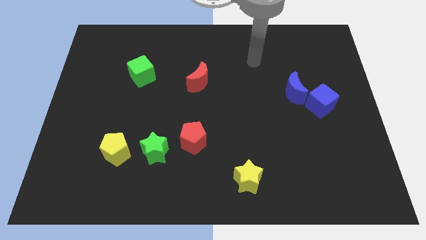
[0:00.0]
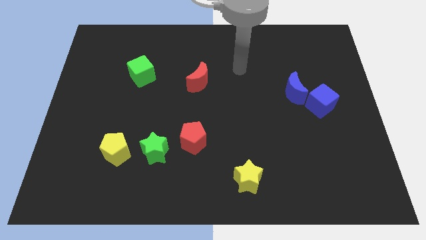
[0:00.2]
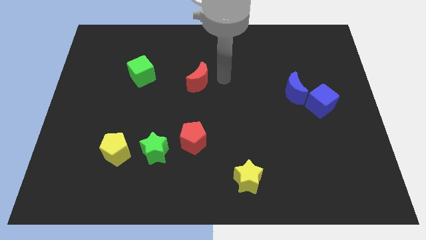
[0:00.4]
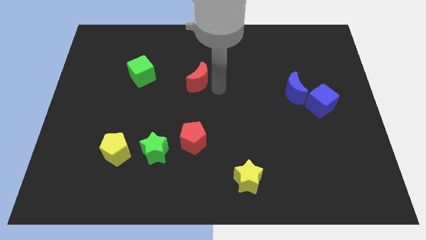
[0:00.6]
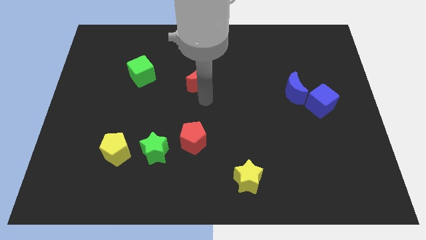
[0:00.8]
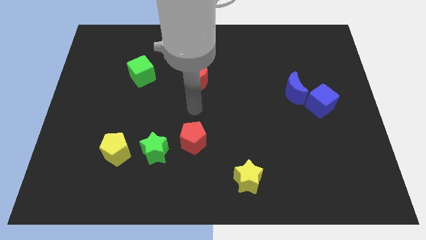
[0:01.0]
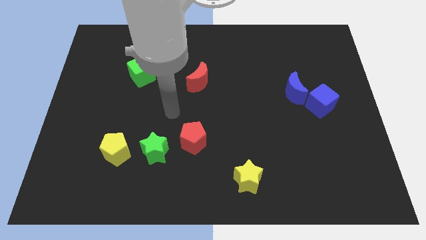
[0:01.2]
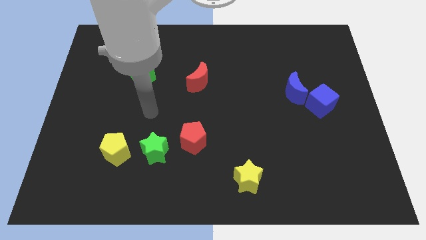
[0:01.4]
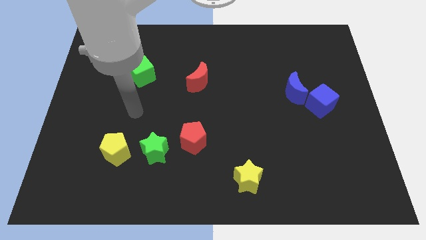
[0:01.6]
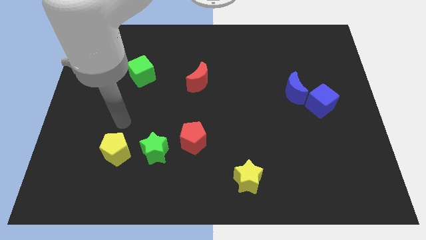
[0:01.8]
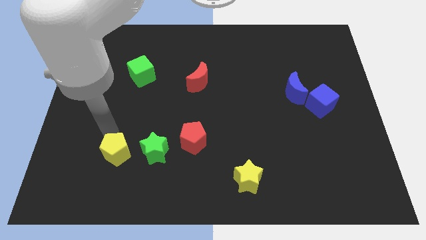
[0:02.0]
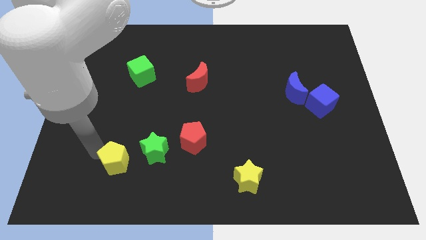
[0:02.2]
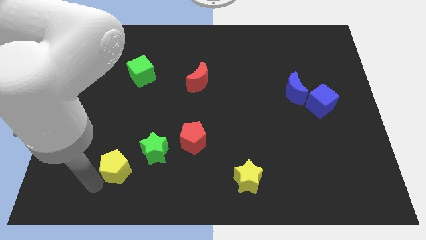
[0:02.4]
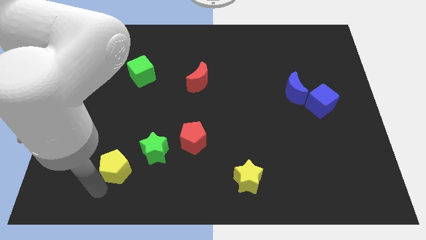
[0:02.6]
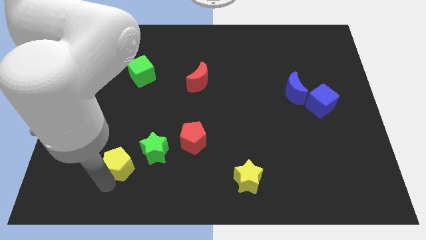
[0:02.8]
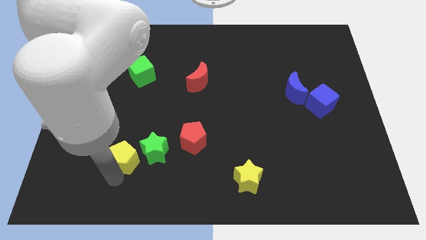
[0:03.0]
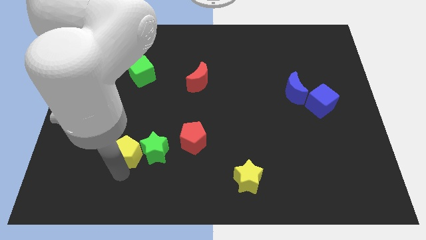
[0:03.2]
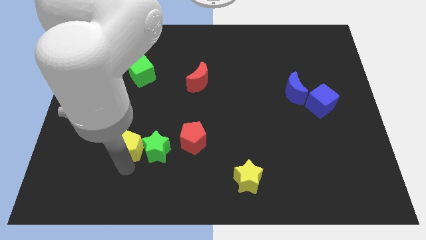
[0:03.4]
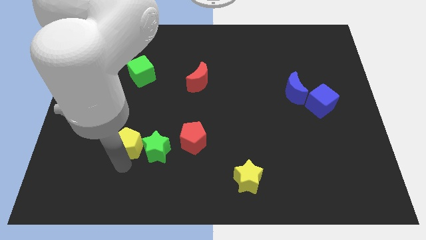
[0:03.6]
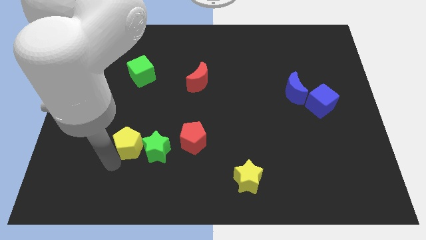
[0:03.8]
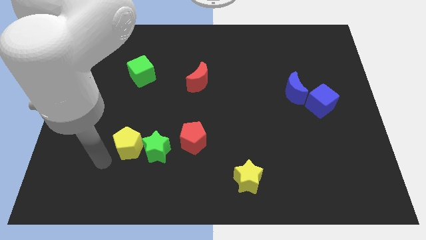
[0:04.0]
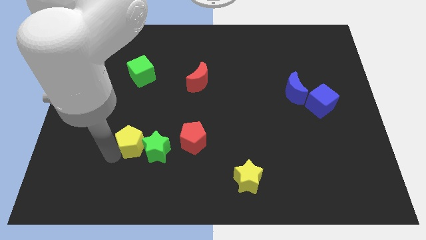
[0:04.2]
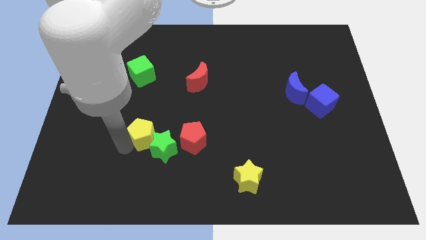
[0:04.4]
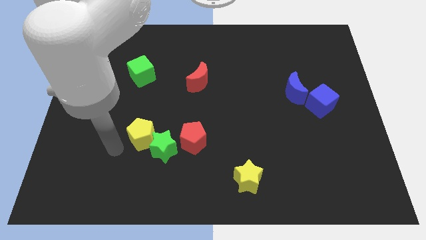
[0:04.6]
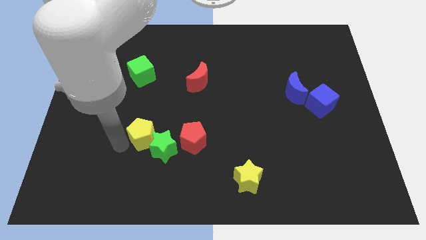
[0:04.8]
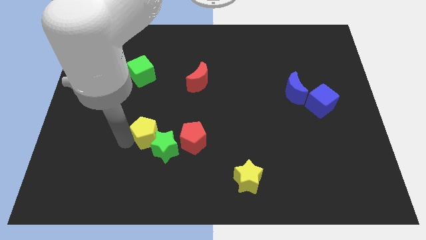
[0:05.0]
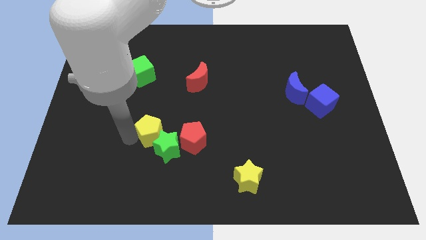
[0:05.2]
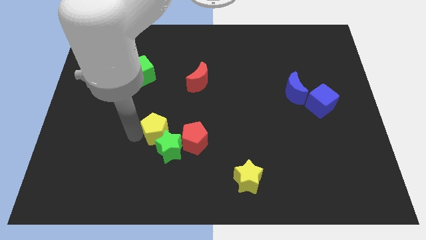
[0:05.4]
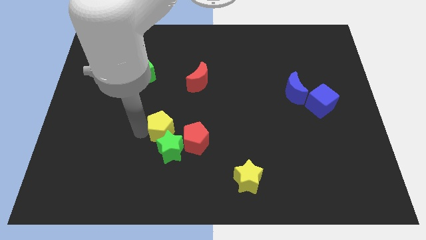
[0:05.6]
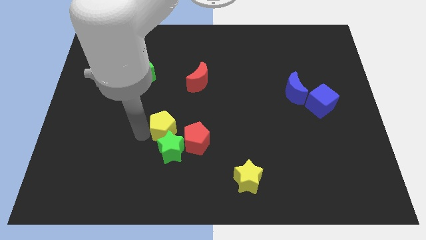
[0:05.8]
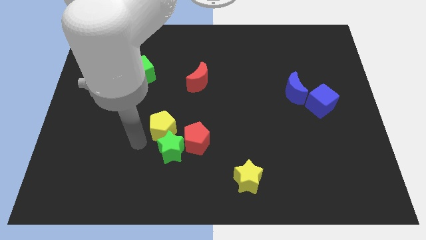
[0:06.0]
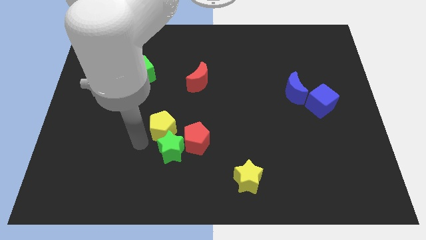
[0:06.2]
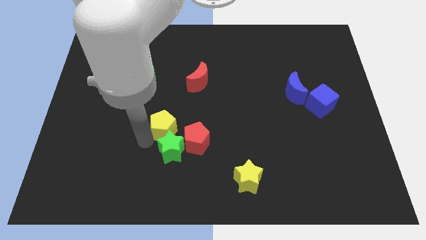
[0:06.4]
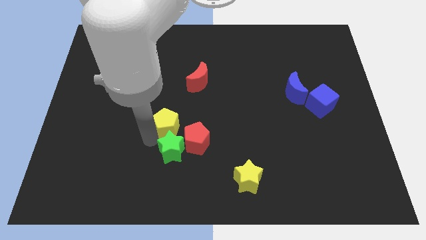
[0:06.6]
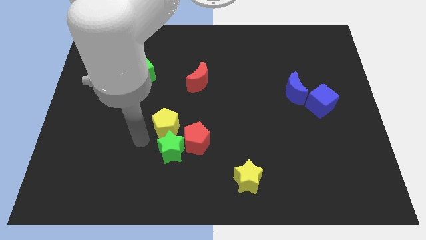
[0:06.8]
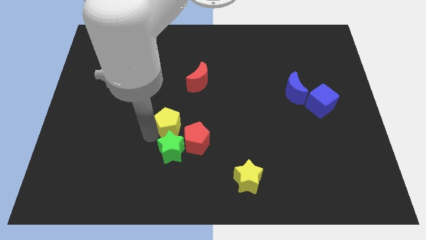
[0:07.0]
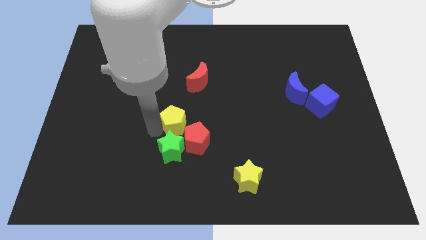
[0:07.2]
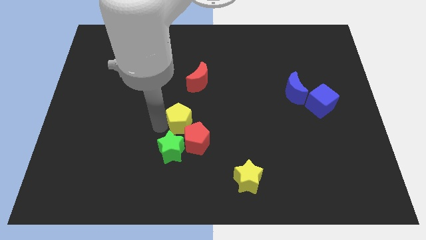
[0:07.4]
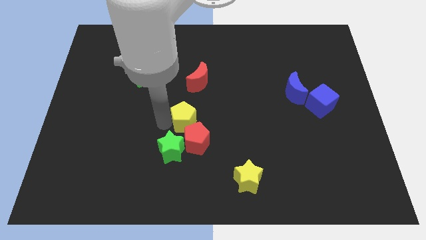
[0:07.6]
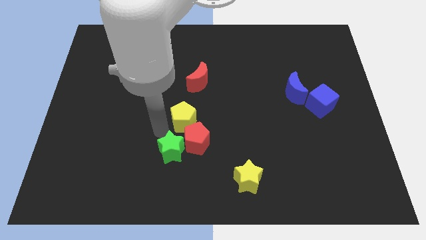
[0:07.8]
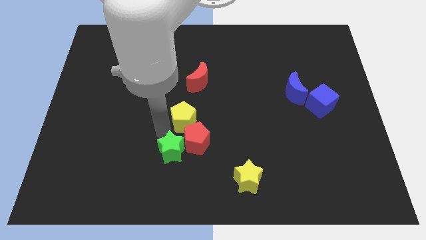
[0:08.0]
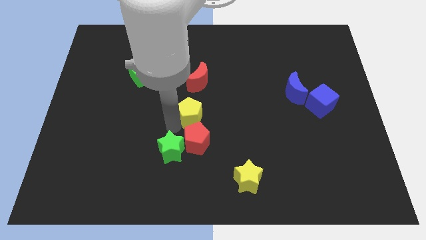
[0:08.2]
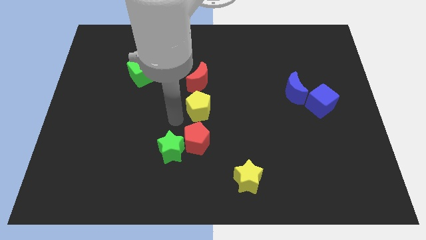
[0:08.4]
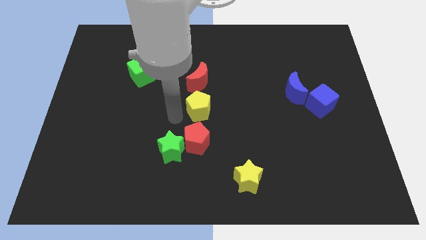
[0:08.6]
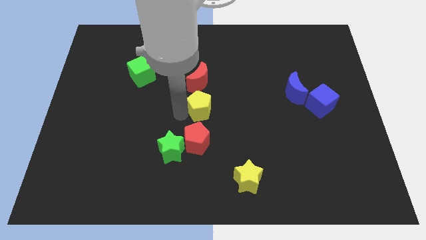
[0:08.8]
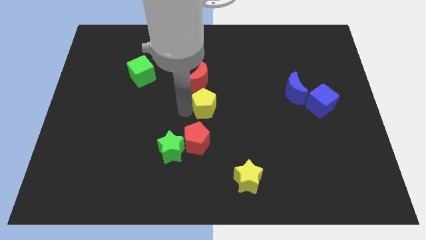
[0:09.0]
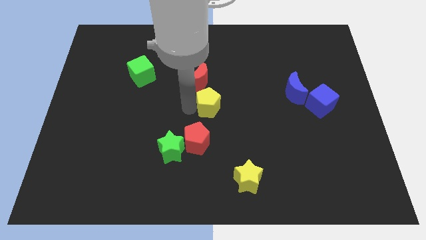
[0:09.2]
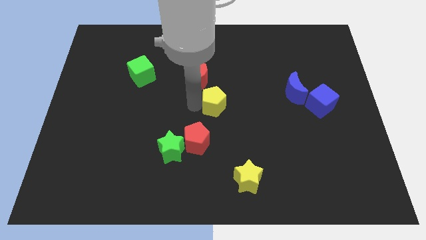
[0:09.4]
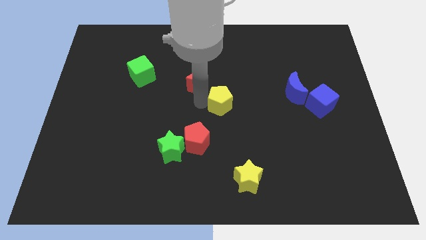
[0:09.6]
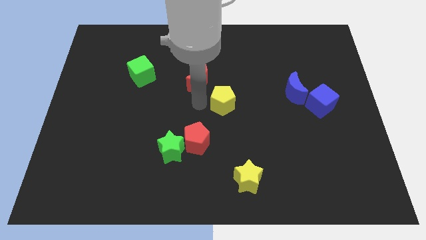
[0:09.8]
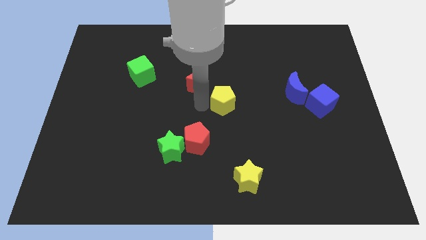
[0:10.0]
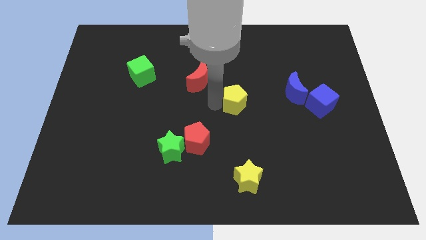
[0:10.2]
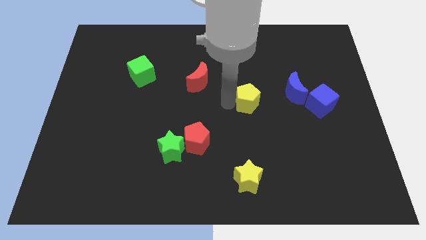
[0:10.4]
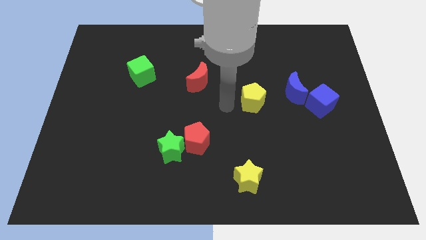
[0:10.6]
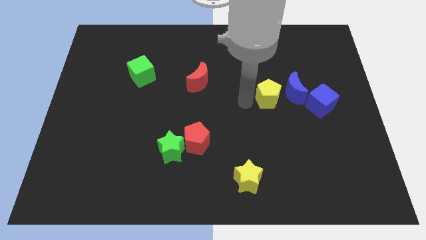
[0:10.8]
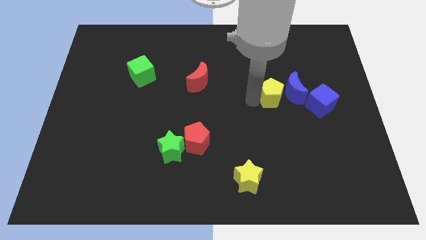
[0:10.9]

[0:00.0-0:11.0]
put the yellow pentagon to the blue moon

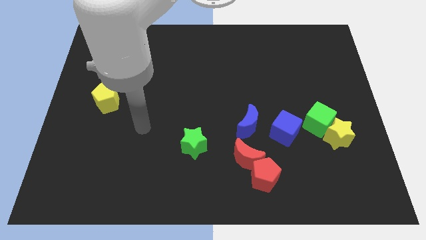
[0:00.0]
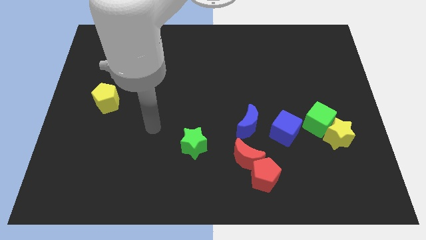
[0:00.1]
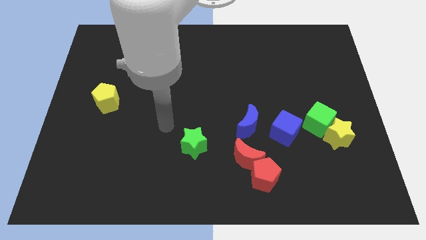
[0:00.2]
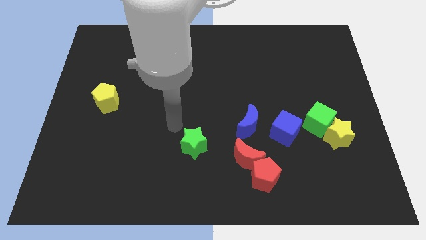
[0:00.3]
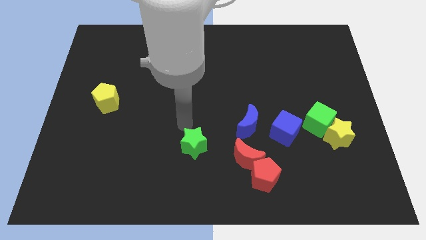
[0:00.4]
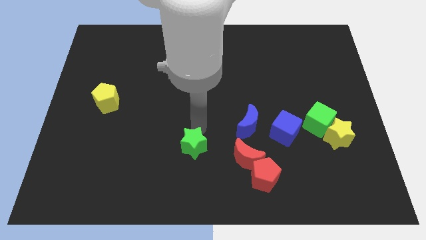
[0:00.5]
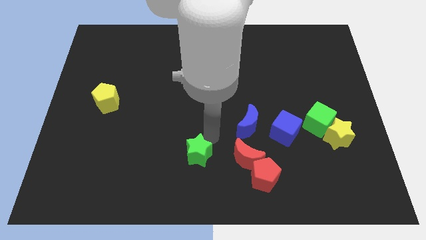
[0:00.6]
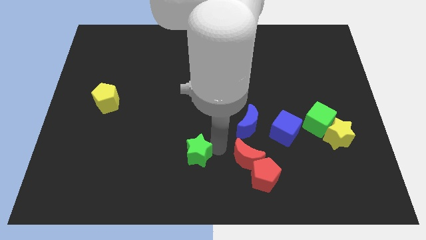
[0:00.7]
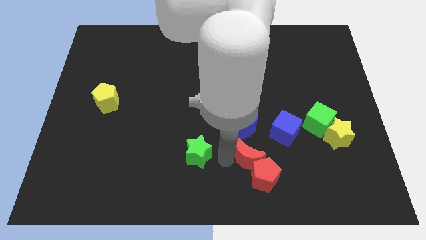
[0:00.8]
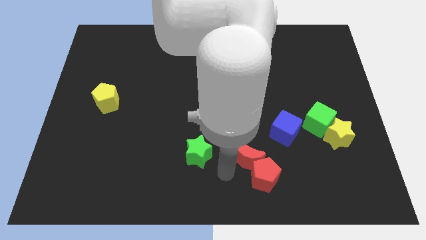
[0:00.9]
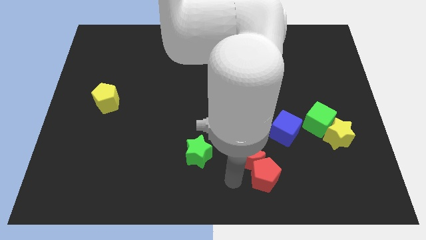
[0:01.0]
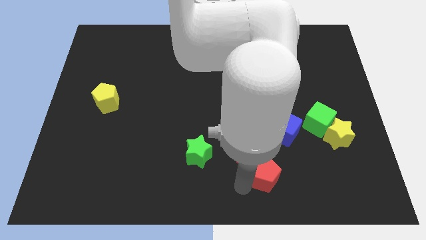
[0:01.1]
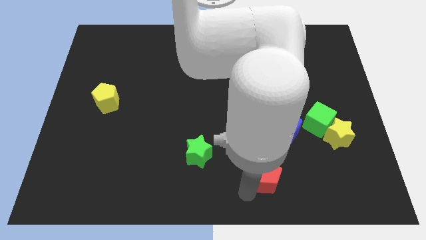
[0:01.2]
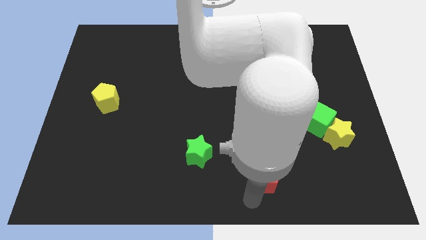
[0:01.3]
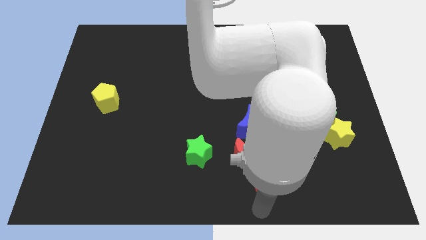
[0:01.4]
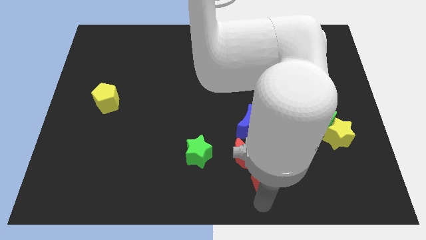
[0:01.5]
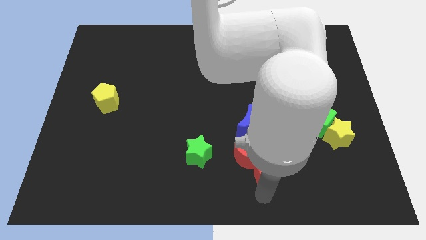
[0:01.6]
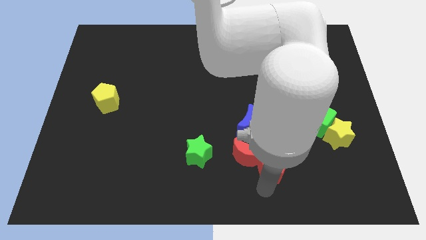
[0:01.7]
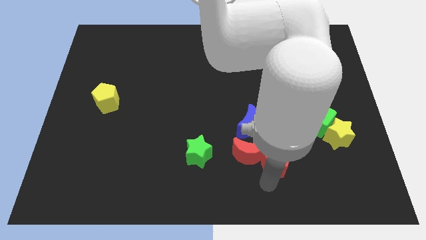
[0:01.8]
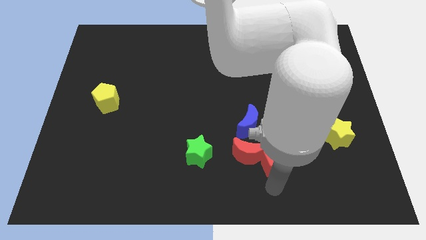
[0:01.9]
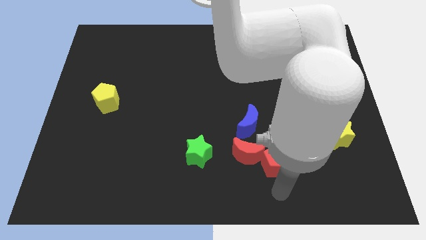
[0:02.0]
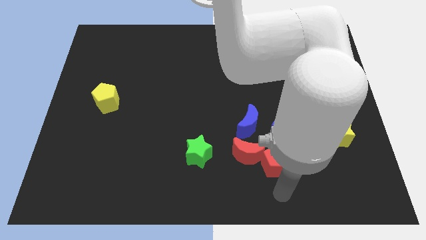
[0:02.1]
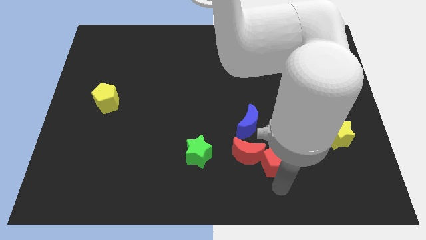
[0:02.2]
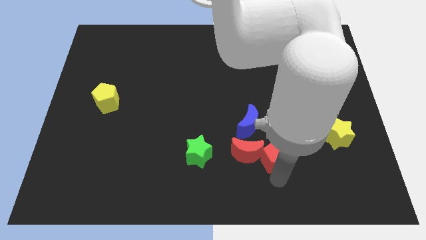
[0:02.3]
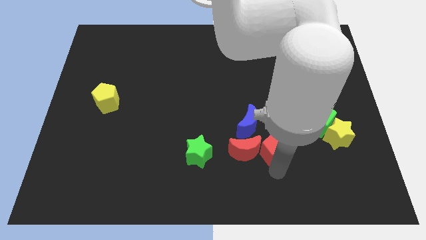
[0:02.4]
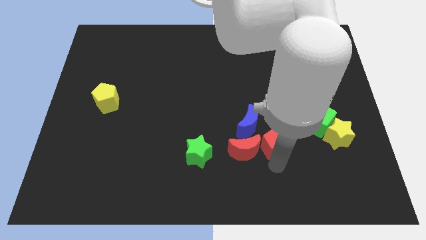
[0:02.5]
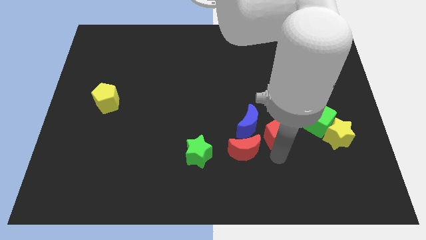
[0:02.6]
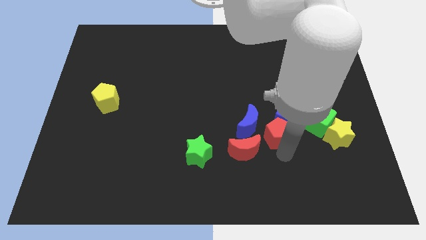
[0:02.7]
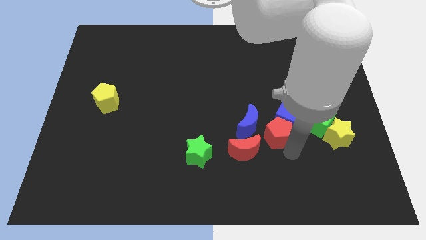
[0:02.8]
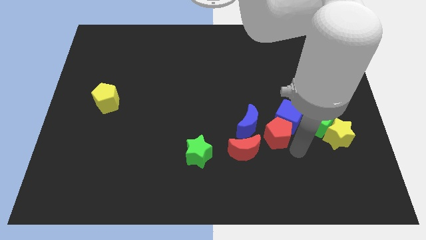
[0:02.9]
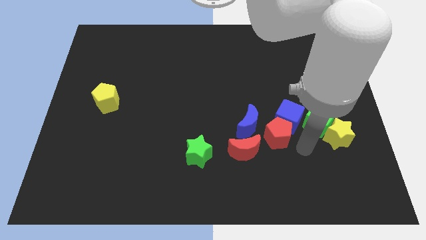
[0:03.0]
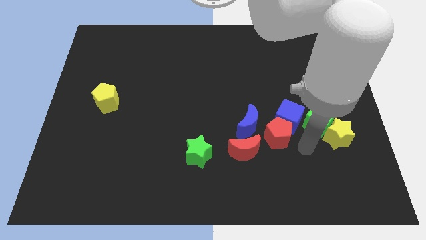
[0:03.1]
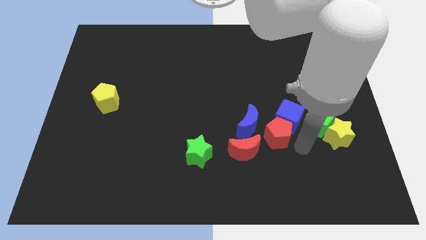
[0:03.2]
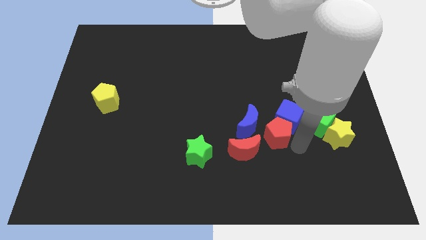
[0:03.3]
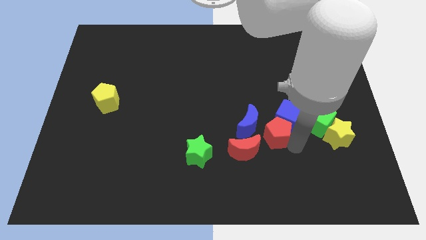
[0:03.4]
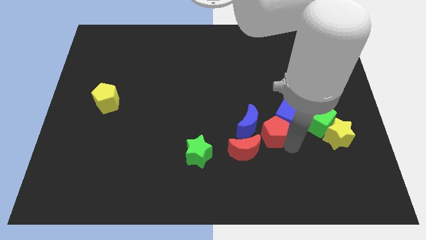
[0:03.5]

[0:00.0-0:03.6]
move the red pentagon next to the blue moon
